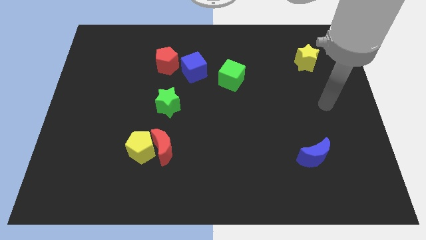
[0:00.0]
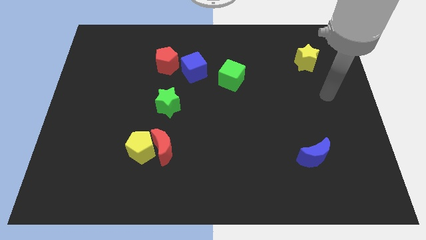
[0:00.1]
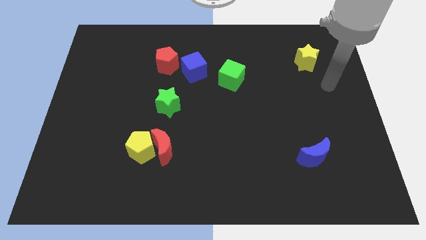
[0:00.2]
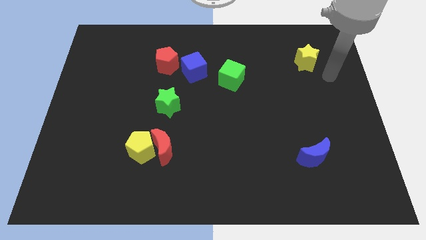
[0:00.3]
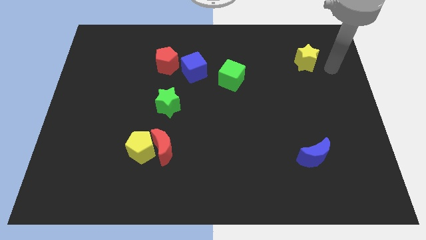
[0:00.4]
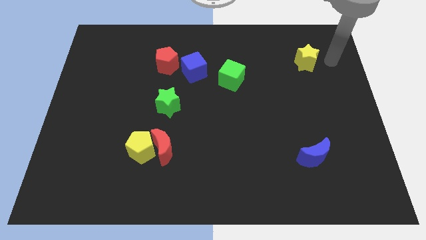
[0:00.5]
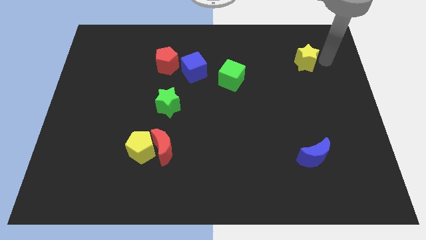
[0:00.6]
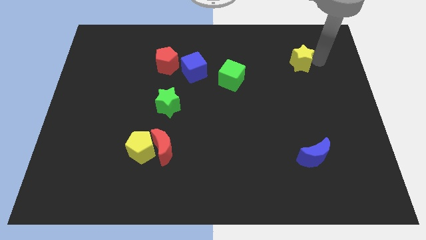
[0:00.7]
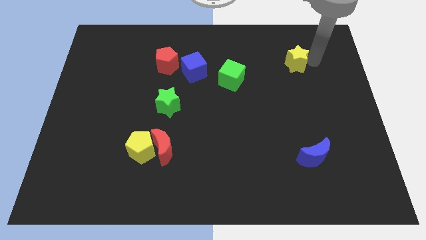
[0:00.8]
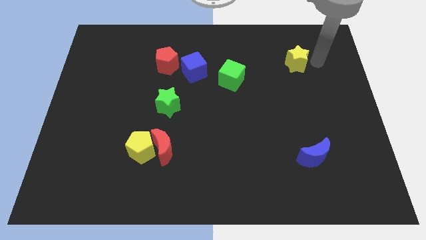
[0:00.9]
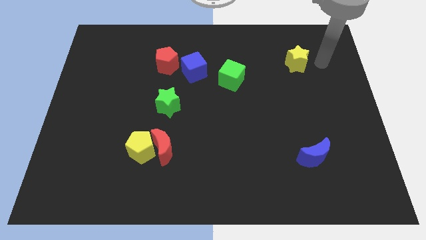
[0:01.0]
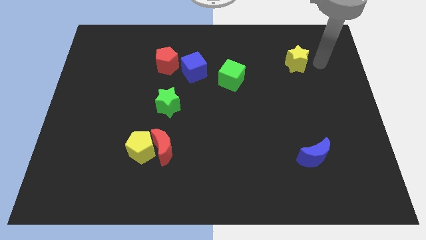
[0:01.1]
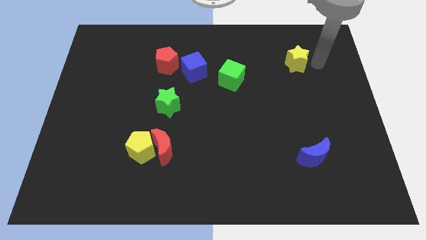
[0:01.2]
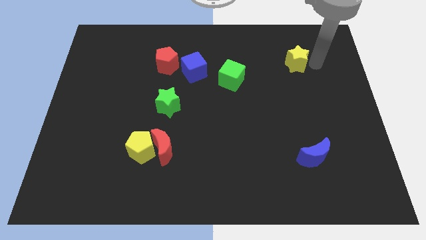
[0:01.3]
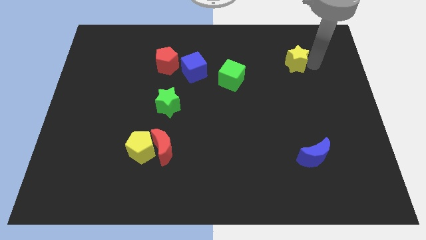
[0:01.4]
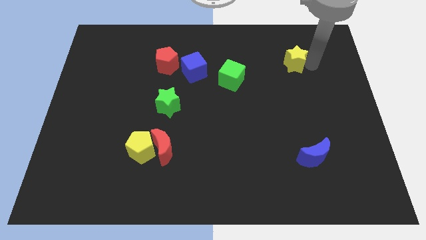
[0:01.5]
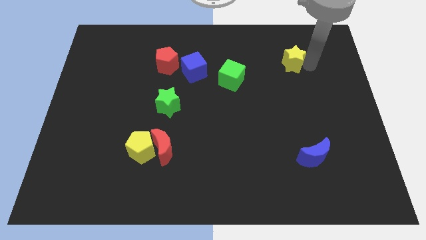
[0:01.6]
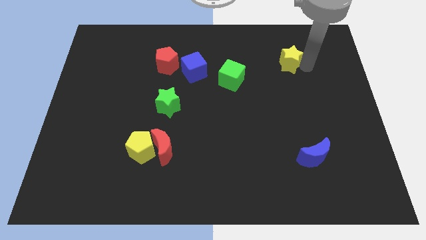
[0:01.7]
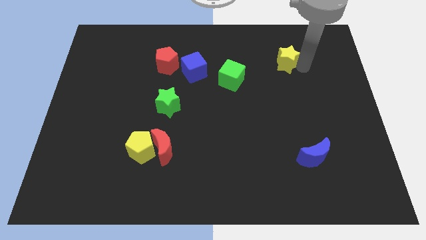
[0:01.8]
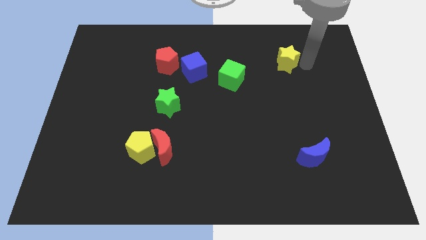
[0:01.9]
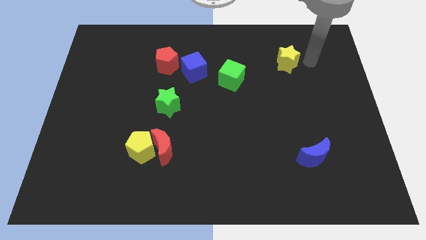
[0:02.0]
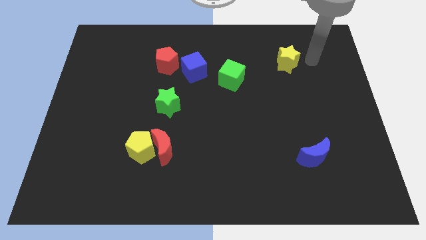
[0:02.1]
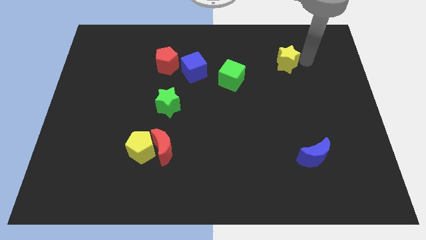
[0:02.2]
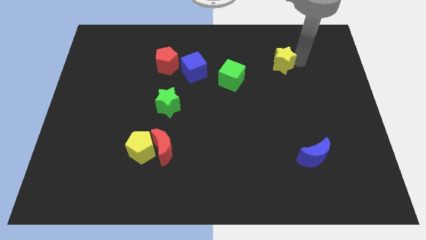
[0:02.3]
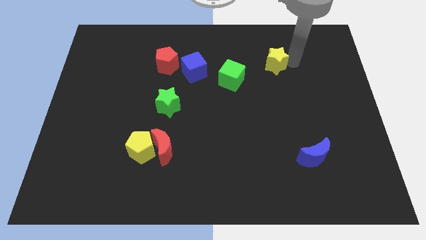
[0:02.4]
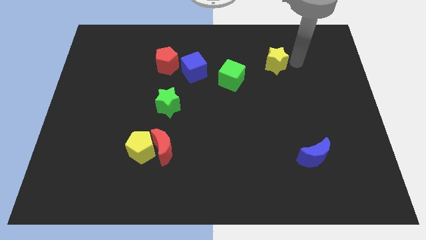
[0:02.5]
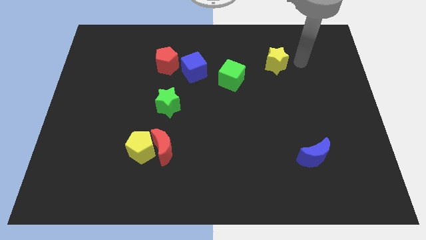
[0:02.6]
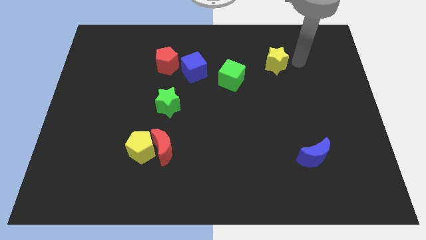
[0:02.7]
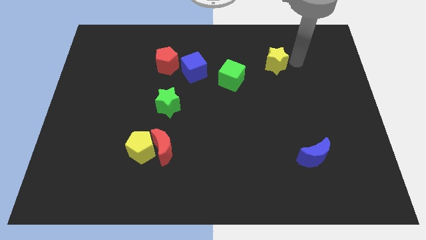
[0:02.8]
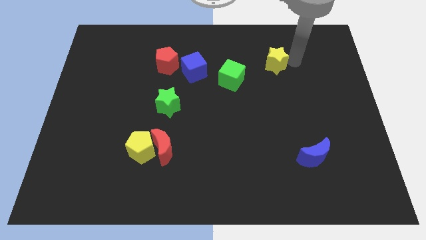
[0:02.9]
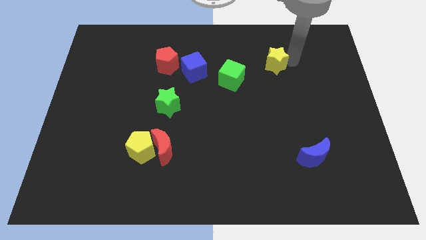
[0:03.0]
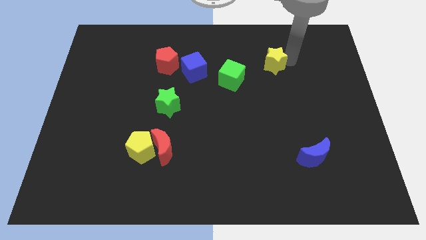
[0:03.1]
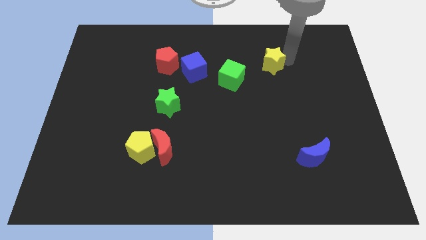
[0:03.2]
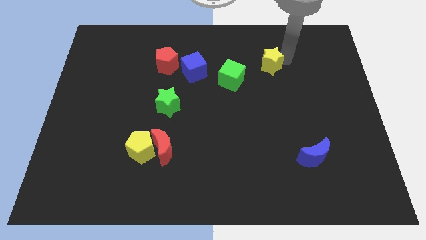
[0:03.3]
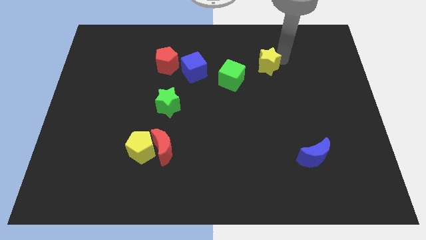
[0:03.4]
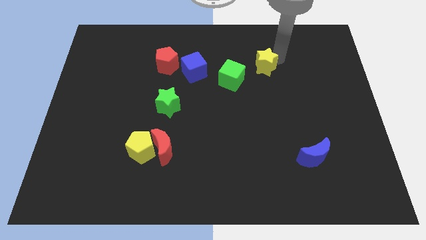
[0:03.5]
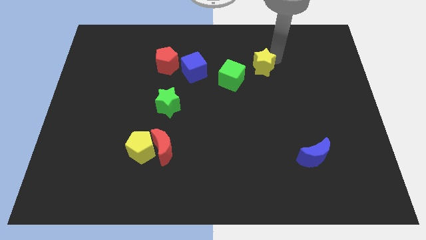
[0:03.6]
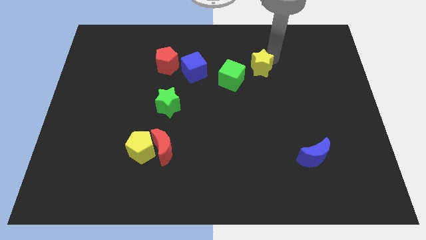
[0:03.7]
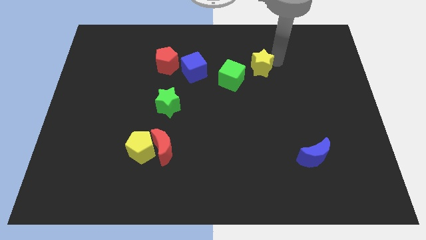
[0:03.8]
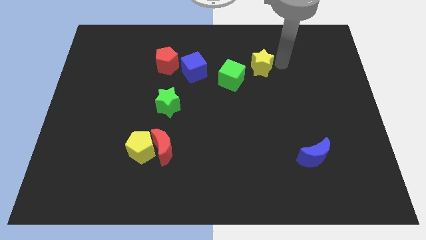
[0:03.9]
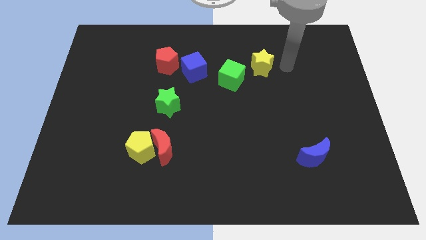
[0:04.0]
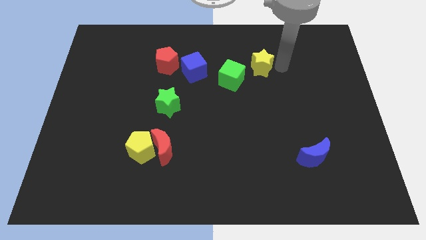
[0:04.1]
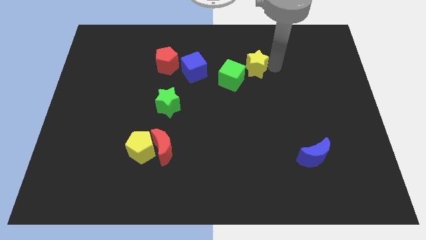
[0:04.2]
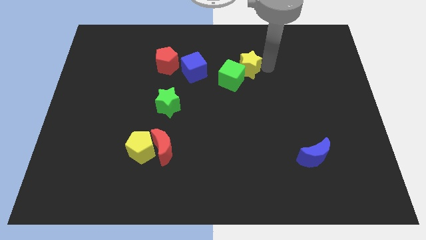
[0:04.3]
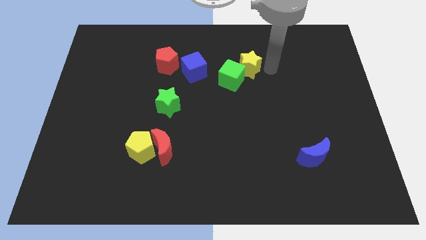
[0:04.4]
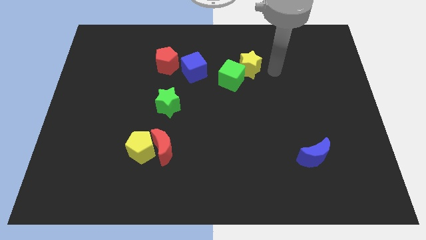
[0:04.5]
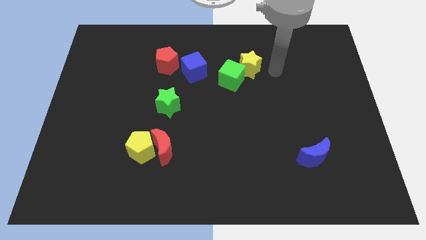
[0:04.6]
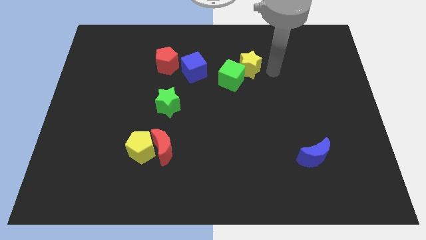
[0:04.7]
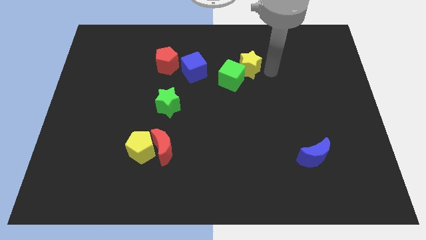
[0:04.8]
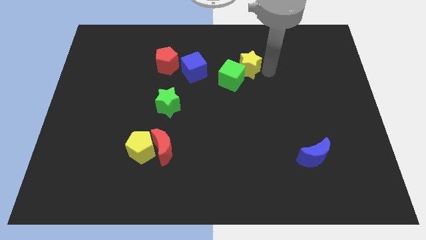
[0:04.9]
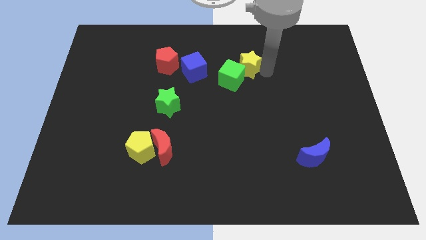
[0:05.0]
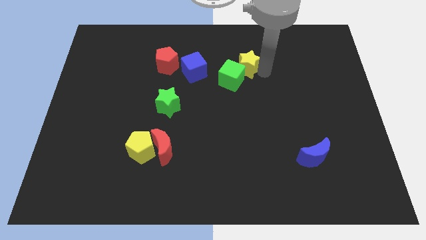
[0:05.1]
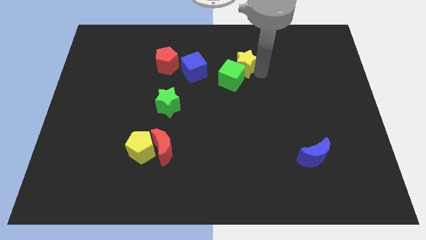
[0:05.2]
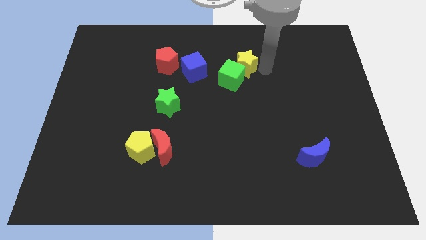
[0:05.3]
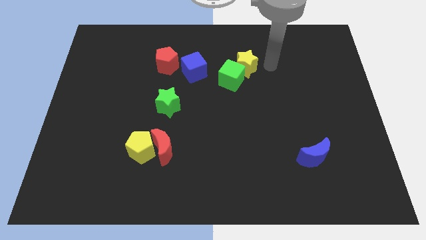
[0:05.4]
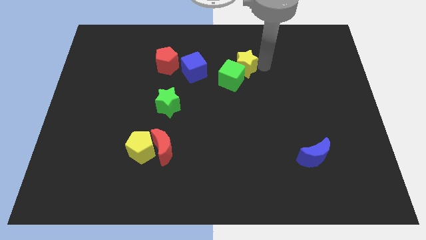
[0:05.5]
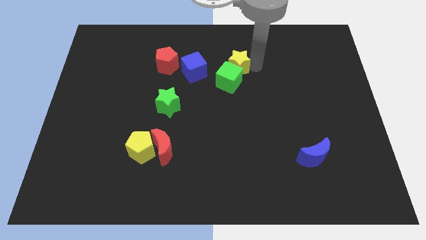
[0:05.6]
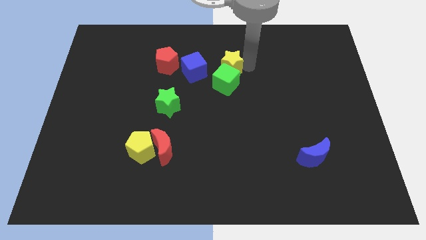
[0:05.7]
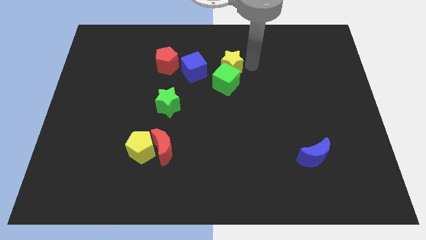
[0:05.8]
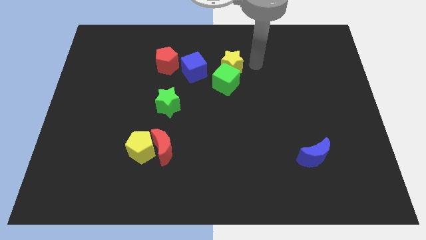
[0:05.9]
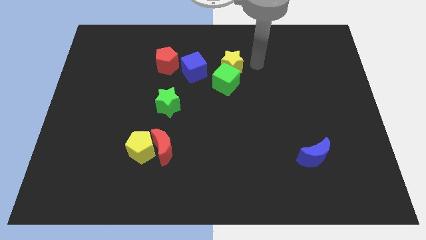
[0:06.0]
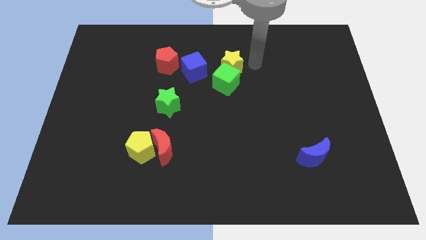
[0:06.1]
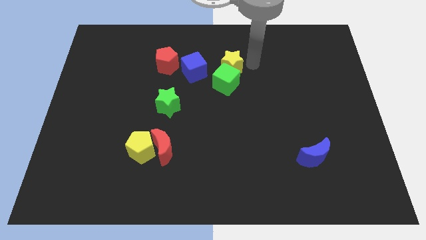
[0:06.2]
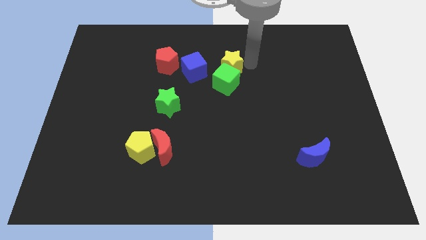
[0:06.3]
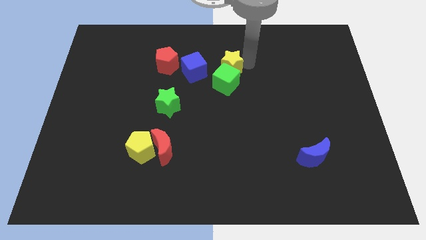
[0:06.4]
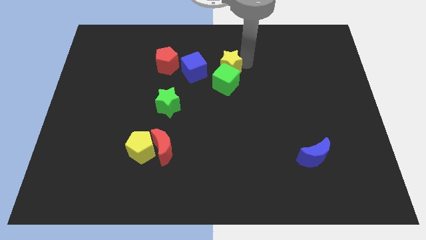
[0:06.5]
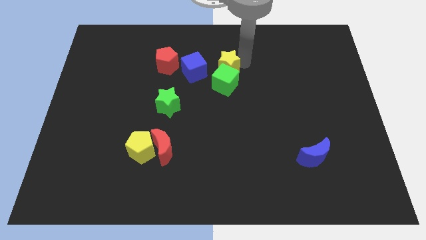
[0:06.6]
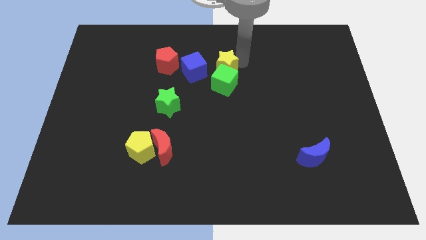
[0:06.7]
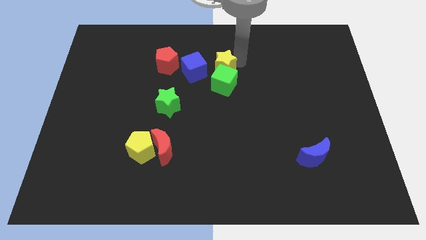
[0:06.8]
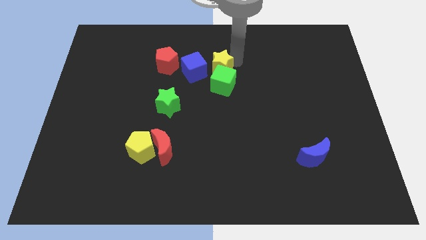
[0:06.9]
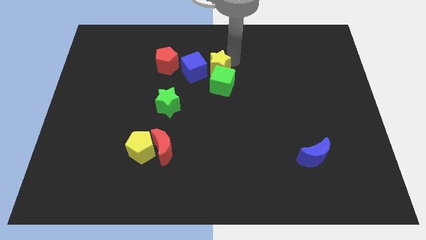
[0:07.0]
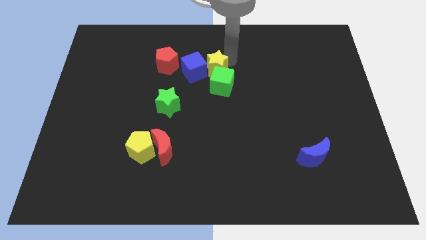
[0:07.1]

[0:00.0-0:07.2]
slide the yellow star close to the blue cube
